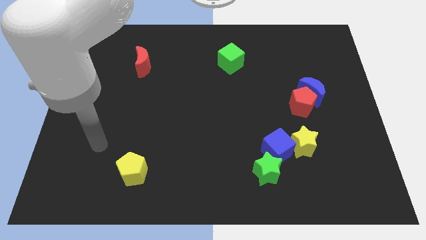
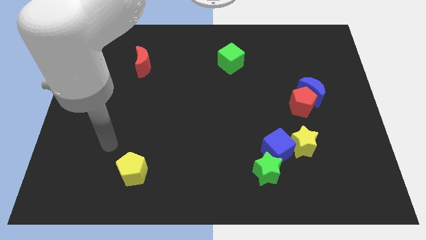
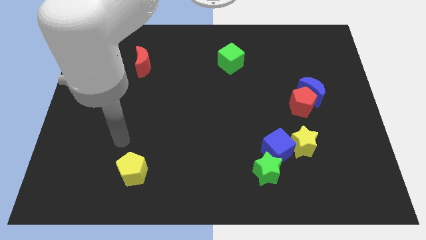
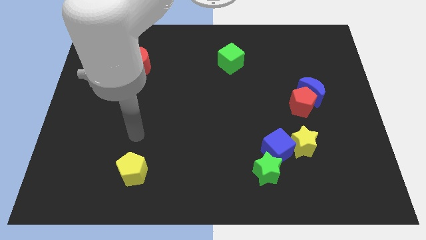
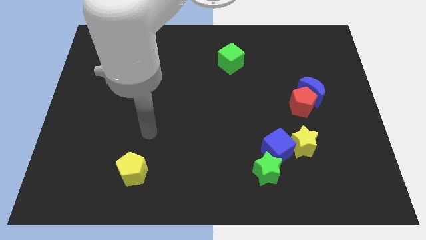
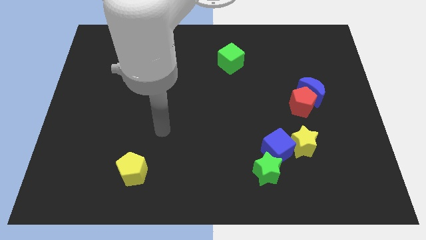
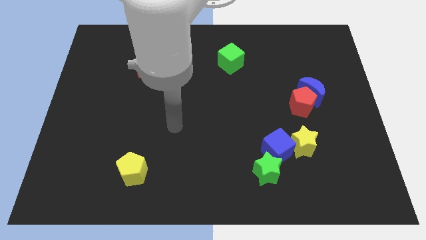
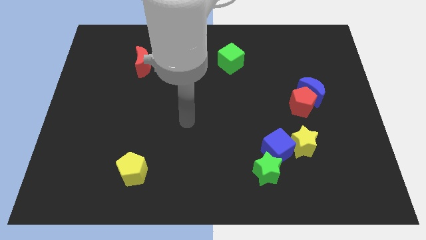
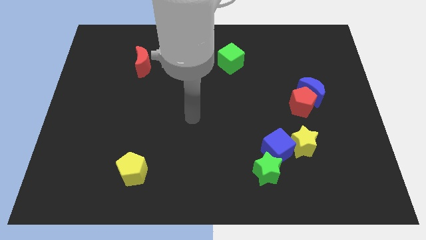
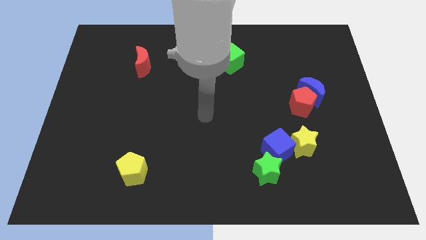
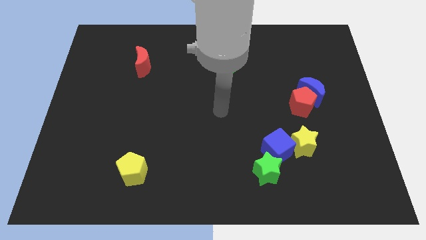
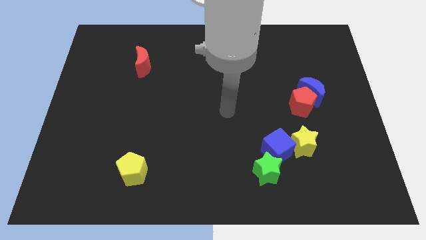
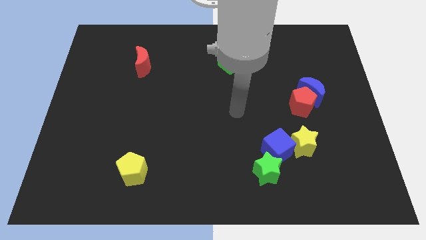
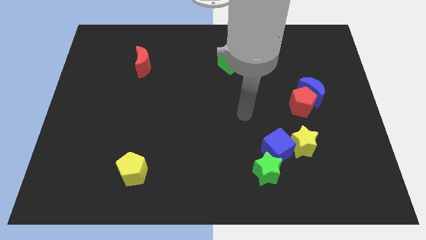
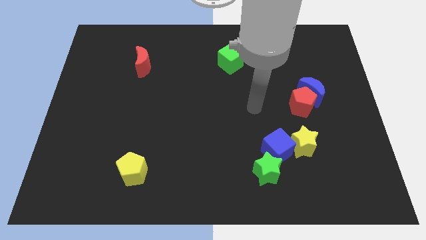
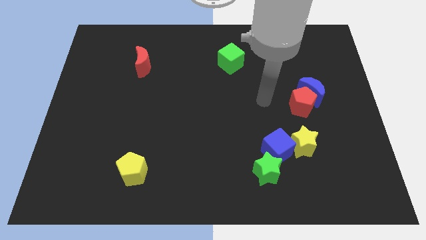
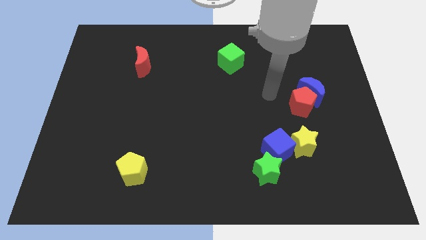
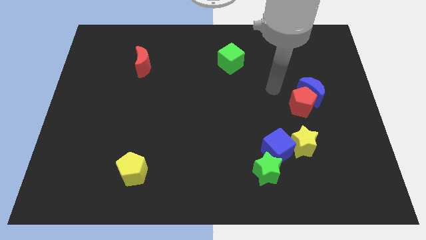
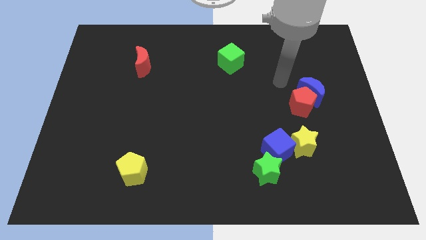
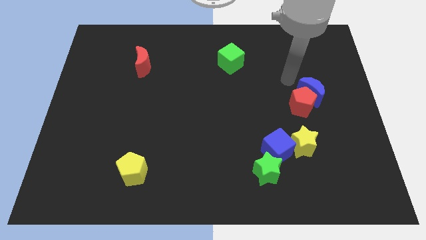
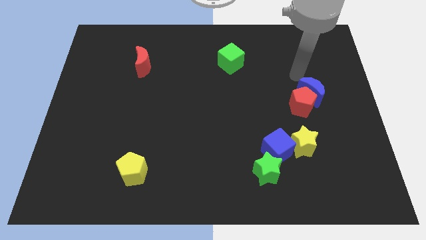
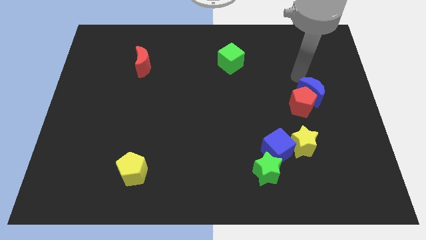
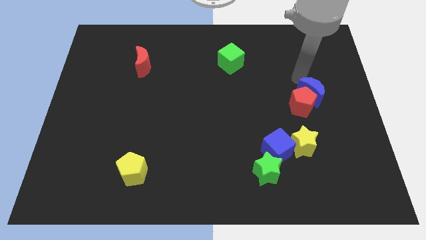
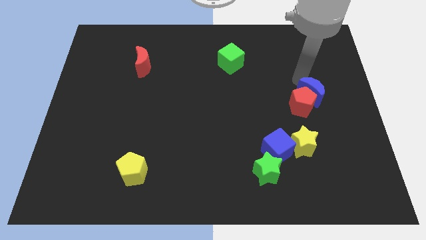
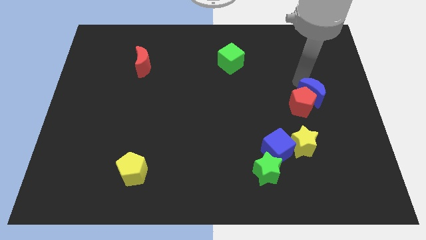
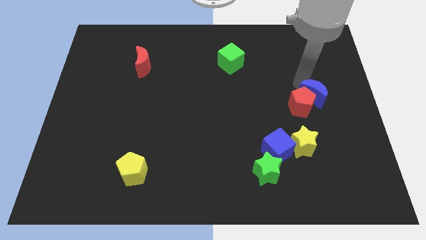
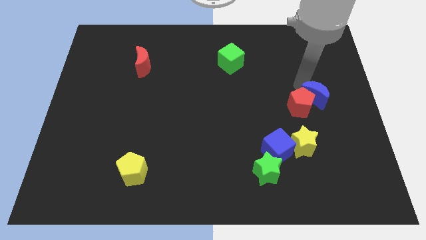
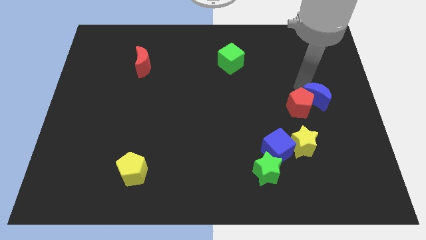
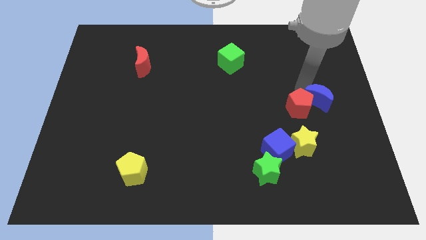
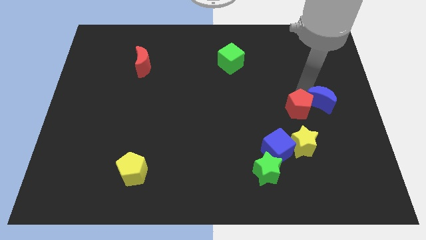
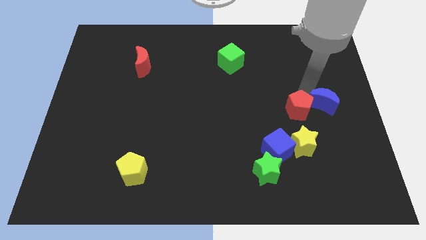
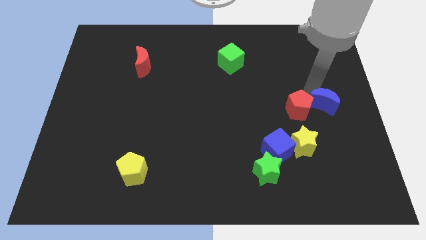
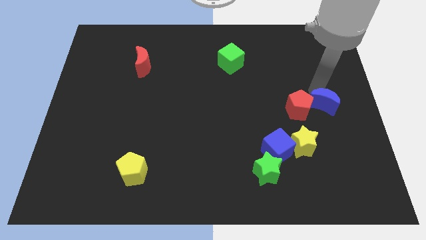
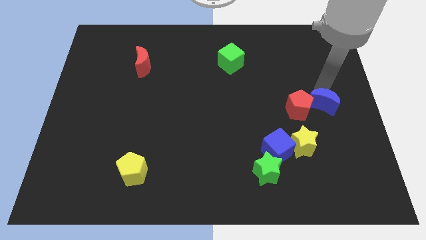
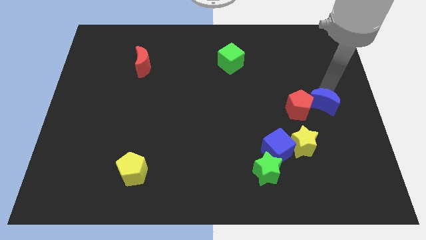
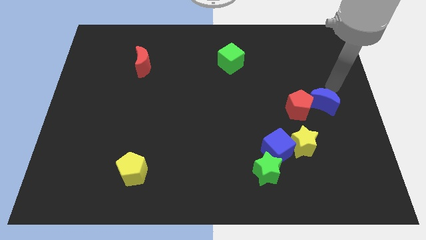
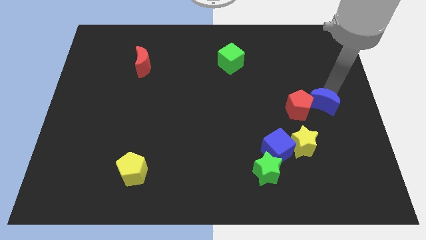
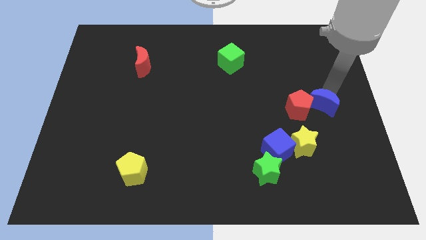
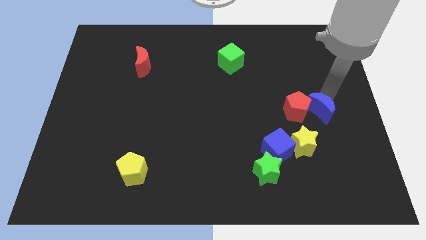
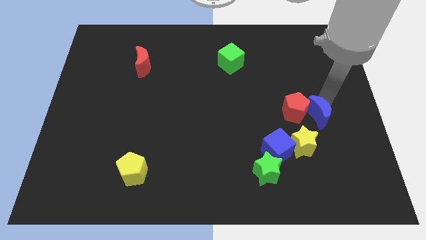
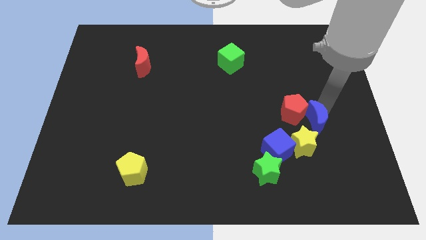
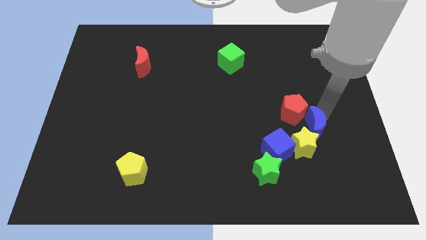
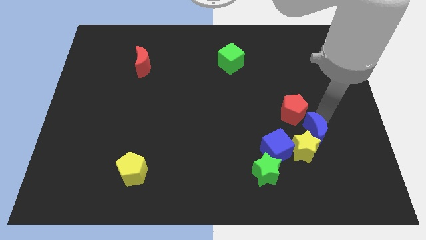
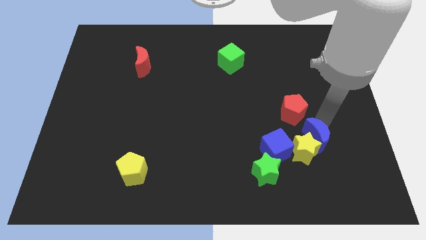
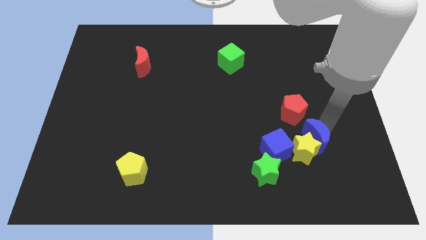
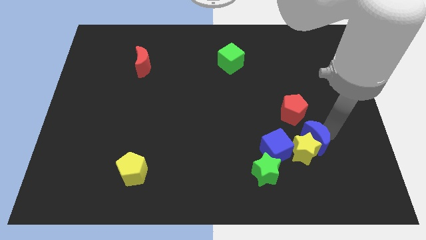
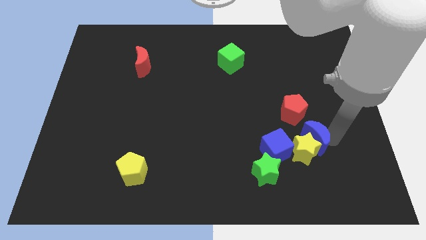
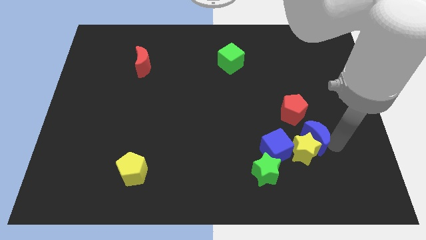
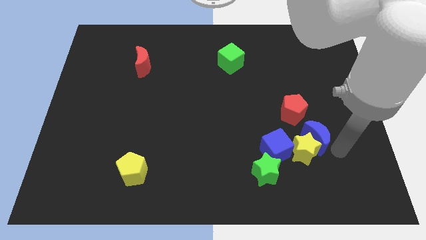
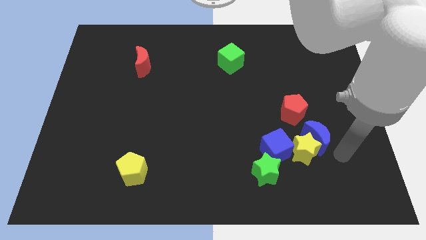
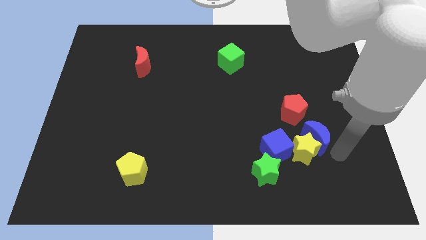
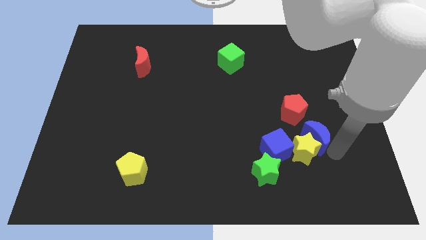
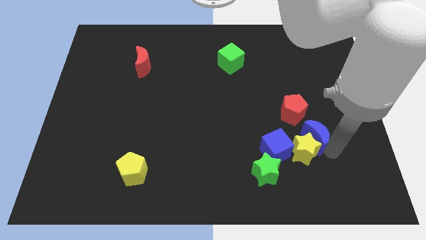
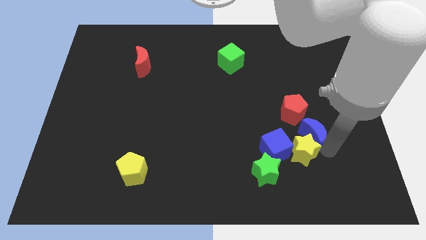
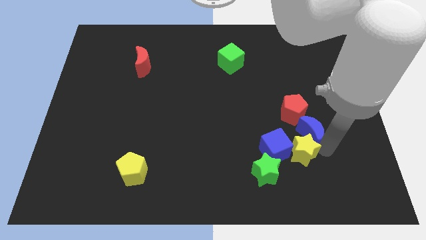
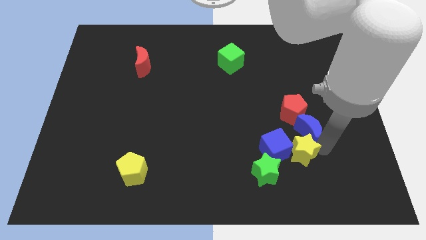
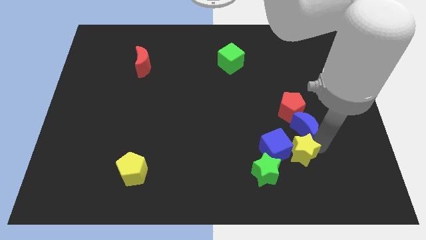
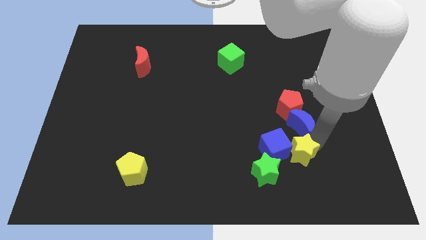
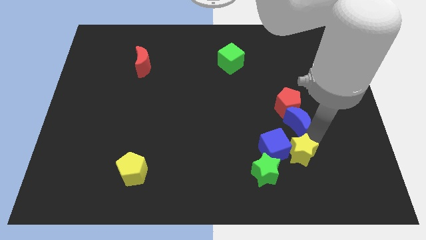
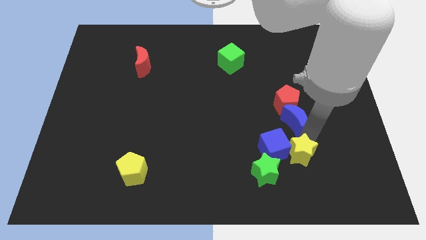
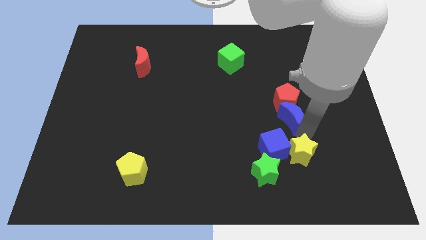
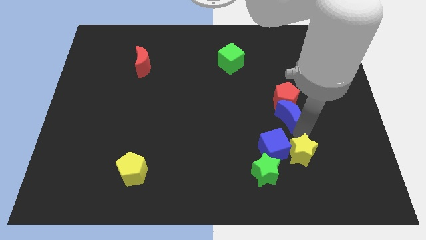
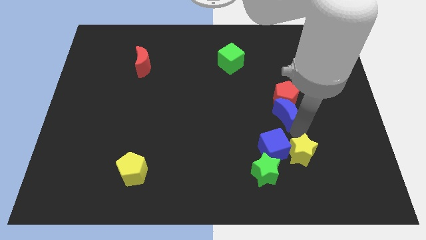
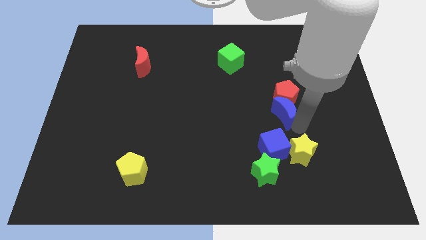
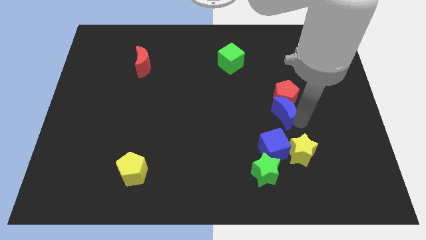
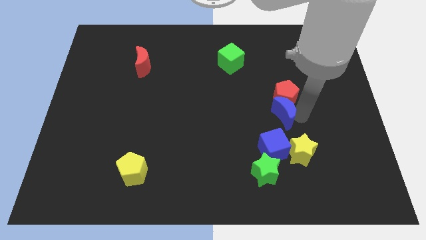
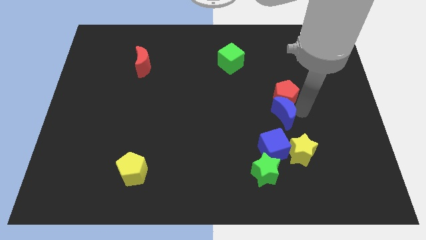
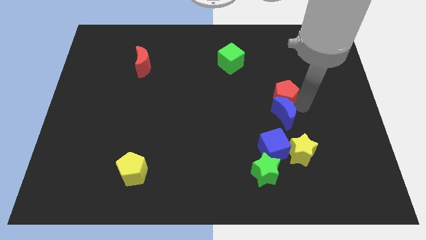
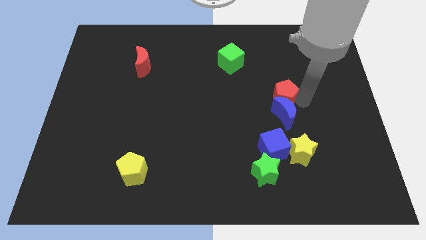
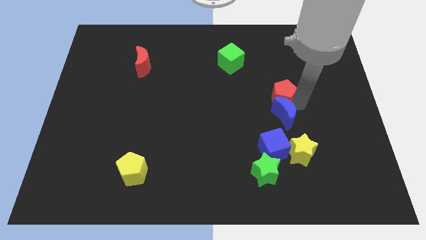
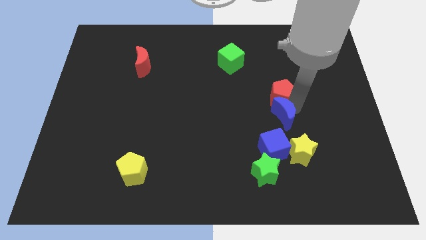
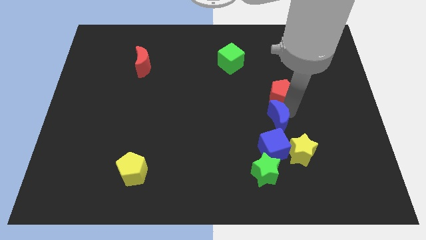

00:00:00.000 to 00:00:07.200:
move the blue moon to the top side of the green star
